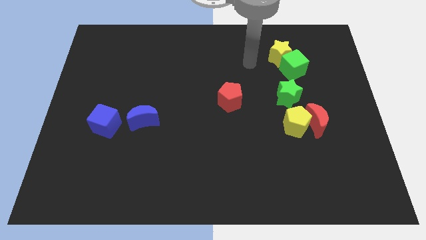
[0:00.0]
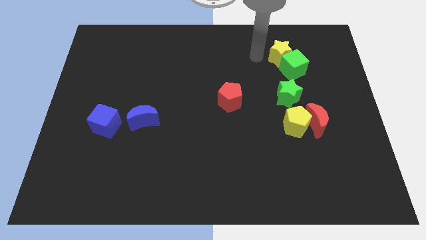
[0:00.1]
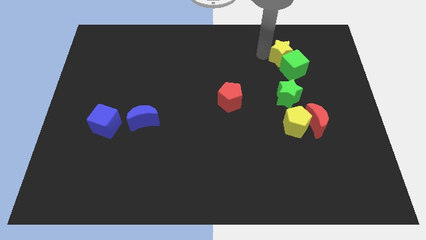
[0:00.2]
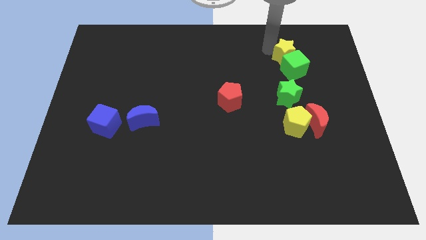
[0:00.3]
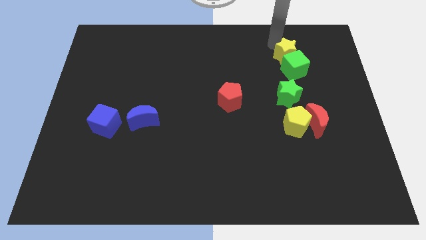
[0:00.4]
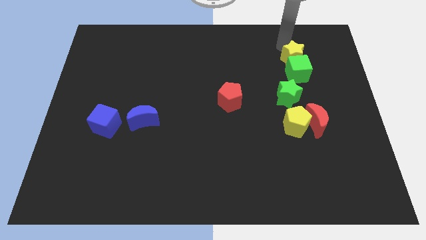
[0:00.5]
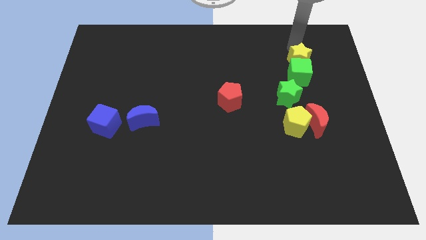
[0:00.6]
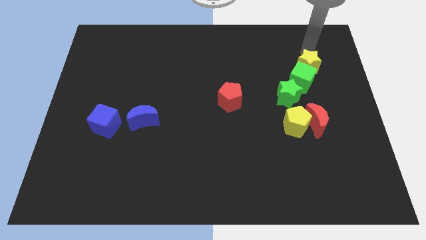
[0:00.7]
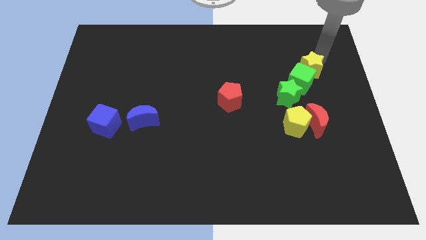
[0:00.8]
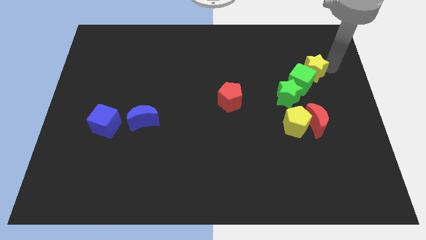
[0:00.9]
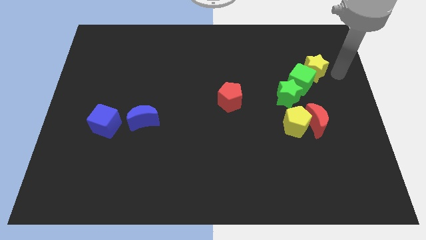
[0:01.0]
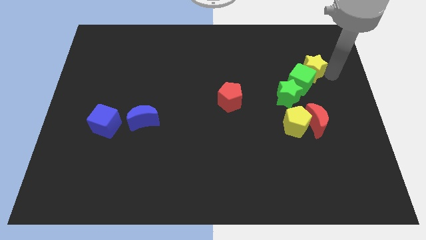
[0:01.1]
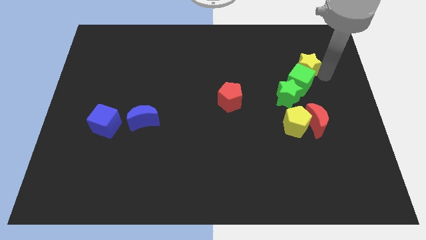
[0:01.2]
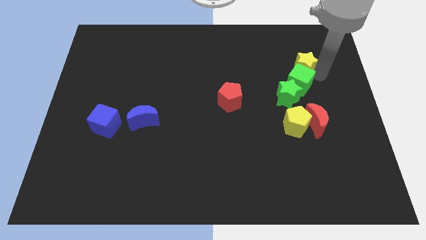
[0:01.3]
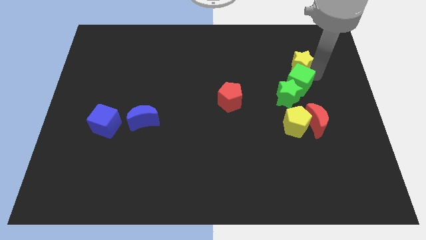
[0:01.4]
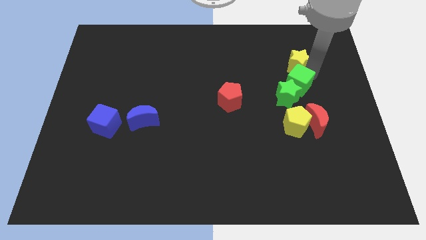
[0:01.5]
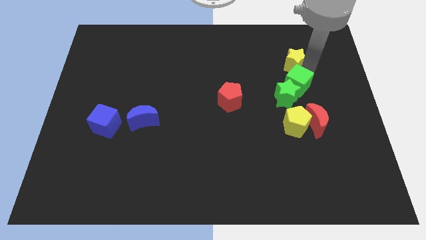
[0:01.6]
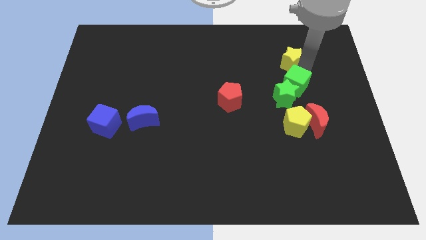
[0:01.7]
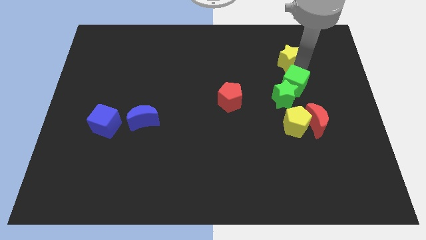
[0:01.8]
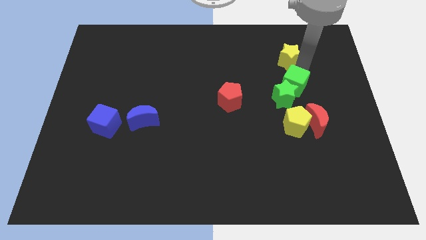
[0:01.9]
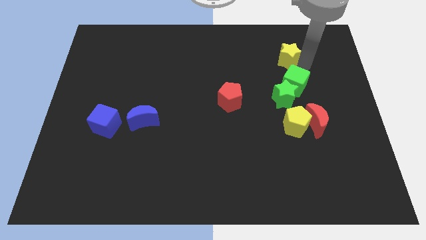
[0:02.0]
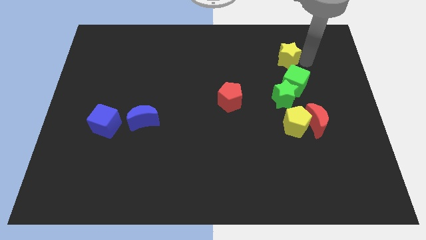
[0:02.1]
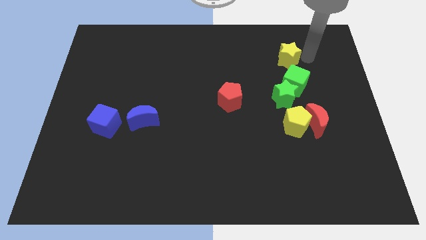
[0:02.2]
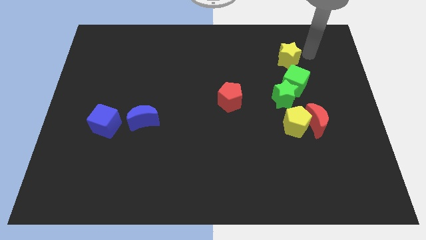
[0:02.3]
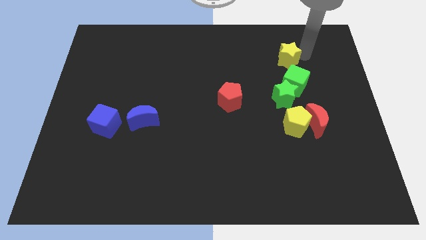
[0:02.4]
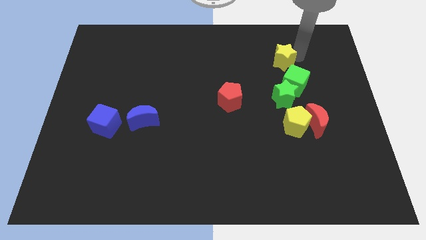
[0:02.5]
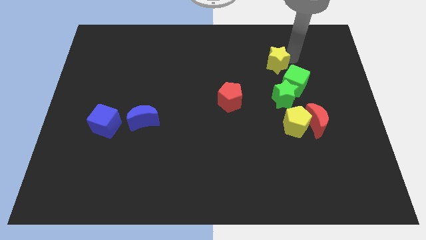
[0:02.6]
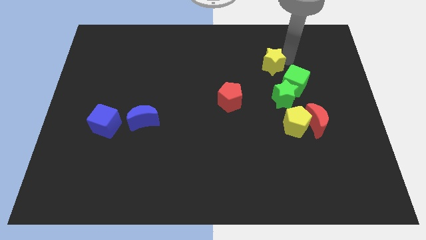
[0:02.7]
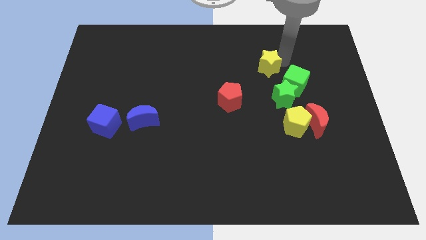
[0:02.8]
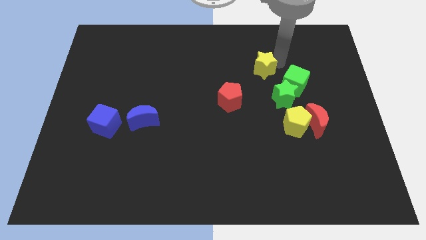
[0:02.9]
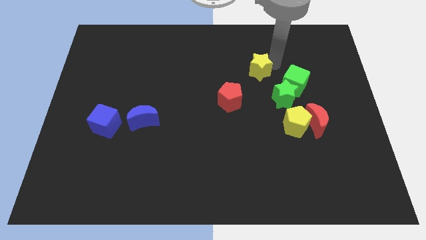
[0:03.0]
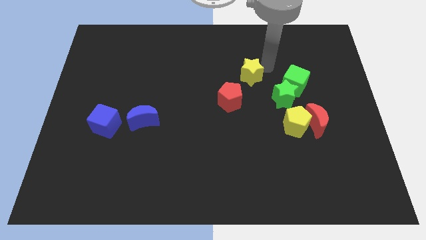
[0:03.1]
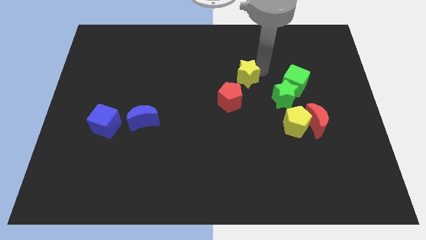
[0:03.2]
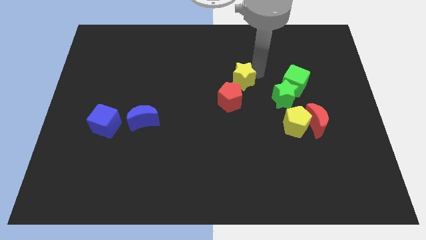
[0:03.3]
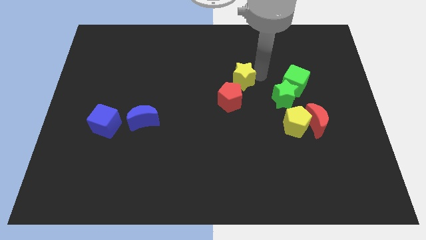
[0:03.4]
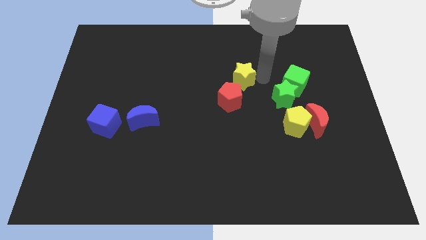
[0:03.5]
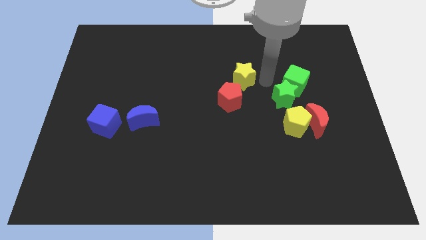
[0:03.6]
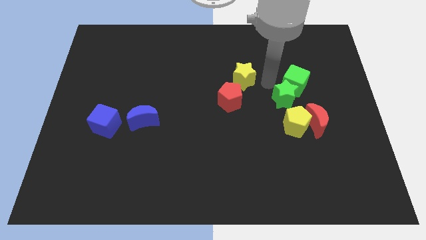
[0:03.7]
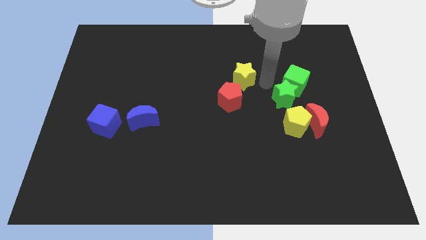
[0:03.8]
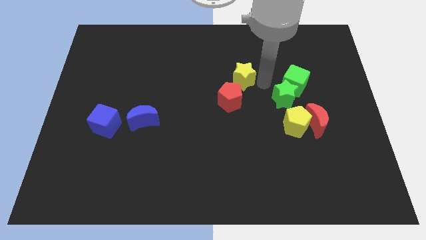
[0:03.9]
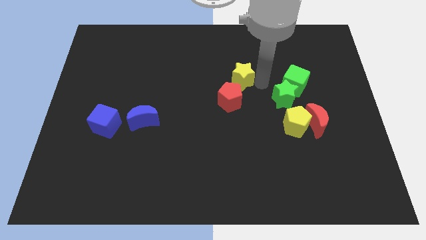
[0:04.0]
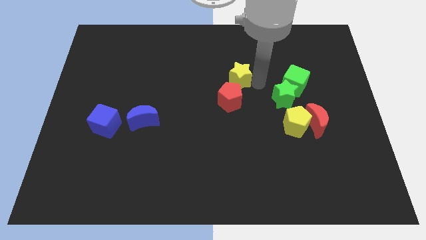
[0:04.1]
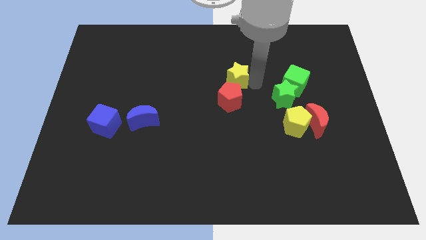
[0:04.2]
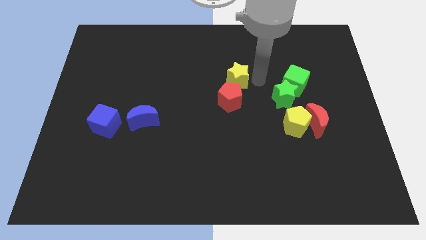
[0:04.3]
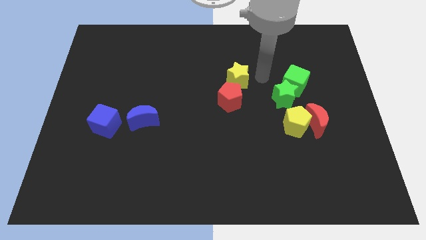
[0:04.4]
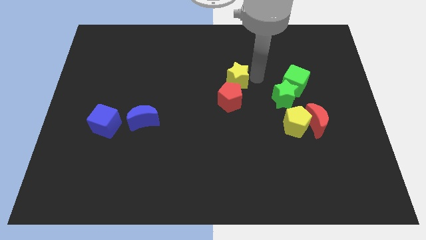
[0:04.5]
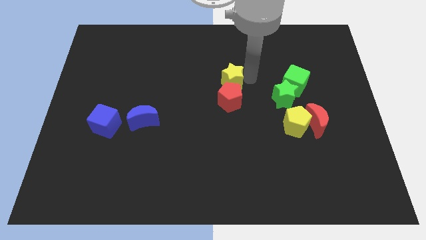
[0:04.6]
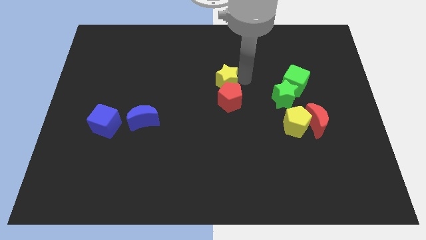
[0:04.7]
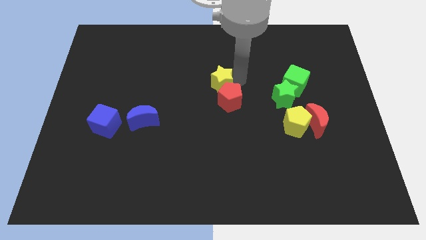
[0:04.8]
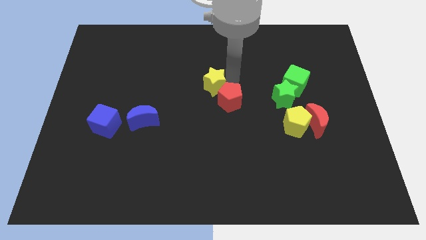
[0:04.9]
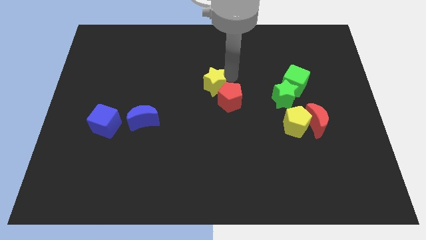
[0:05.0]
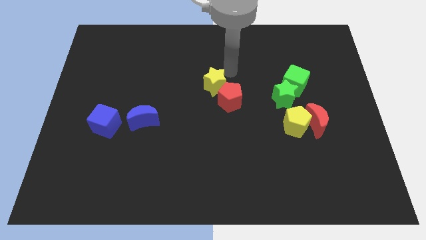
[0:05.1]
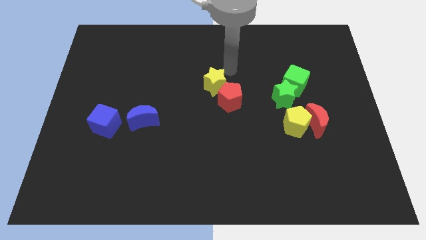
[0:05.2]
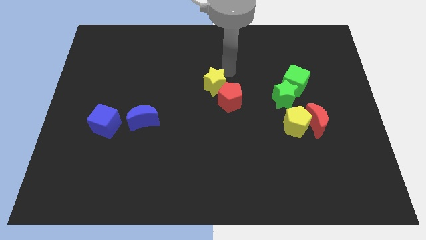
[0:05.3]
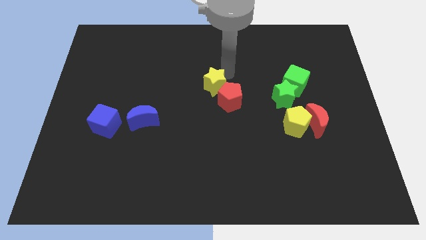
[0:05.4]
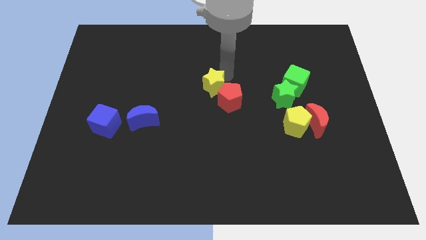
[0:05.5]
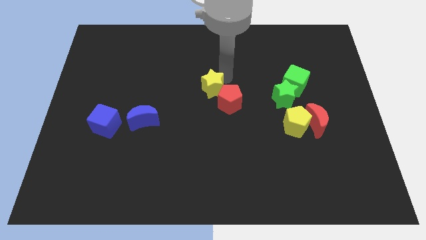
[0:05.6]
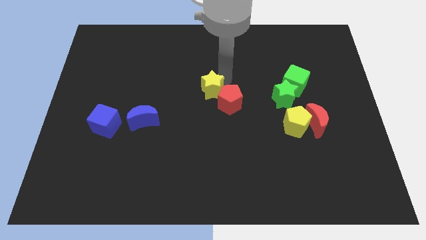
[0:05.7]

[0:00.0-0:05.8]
slide the yellow star downwards and then to the left

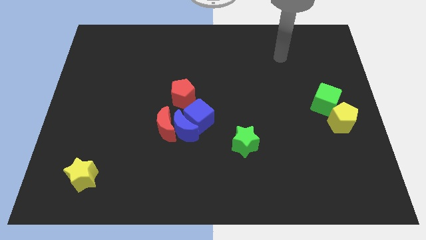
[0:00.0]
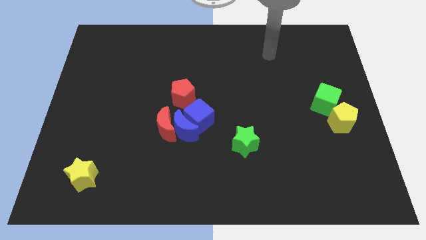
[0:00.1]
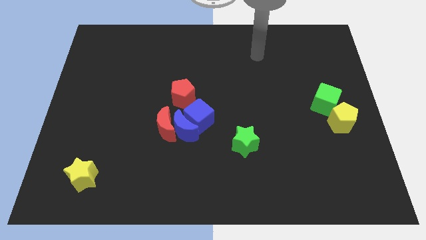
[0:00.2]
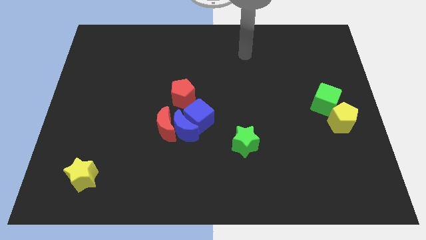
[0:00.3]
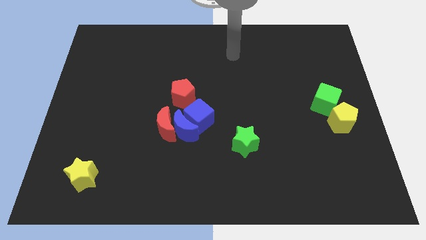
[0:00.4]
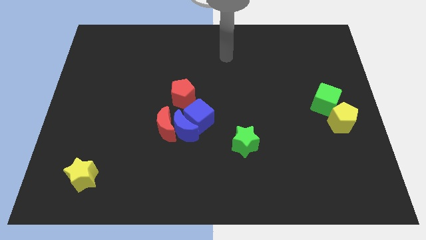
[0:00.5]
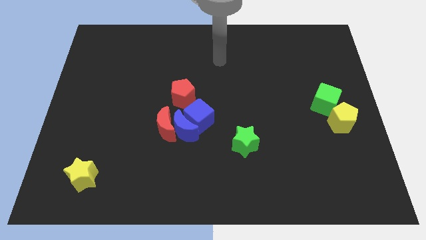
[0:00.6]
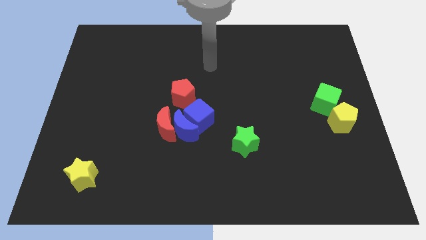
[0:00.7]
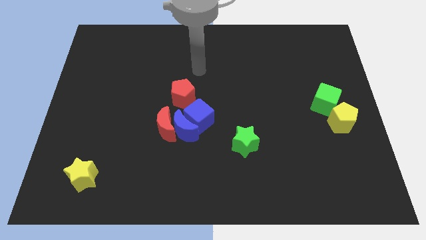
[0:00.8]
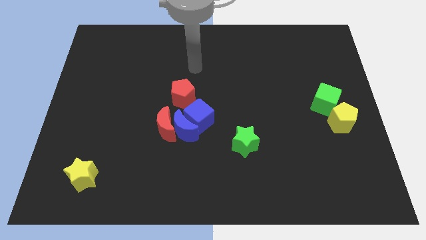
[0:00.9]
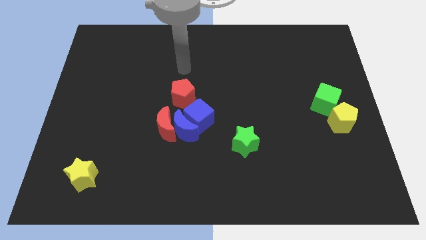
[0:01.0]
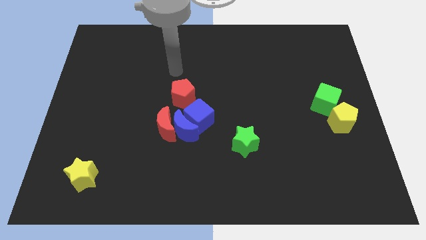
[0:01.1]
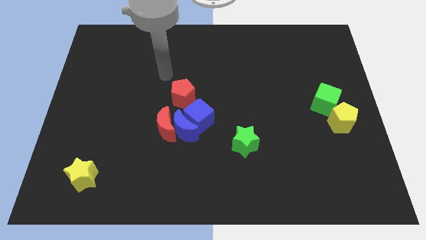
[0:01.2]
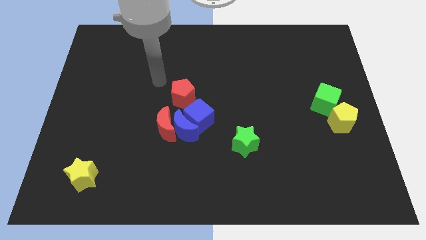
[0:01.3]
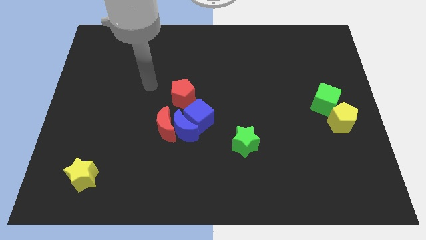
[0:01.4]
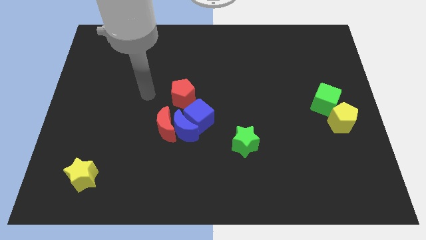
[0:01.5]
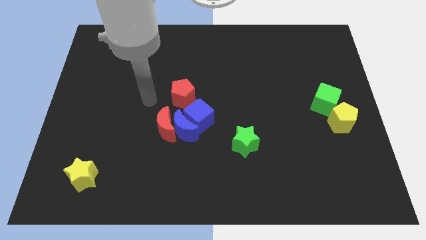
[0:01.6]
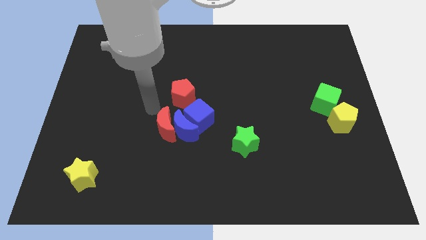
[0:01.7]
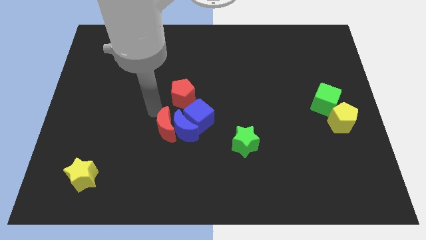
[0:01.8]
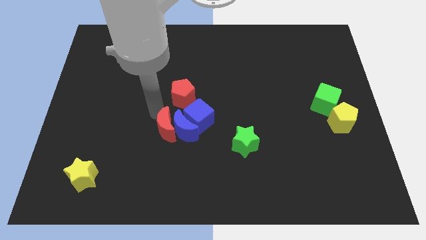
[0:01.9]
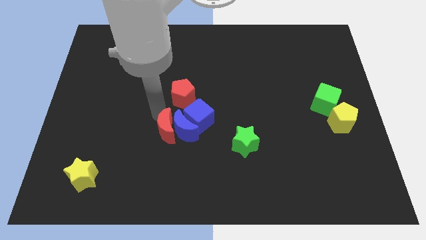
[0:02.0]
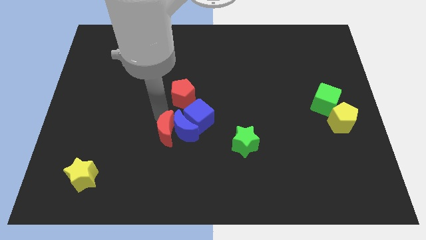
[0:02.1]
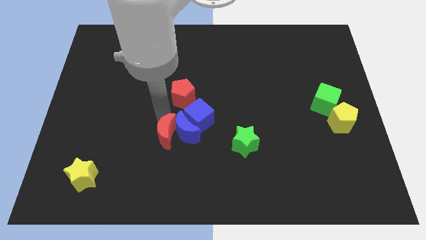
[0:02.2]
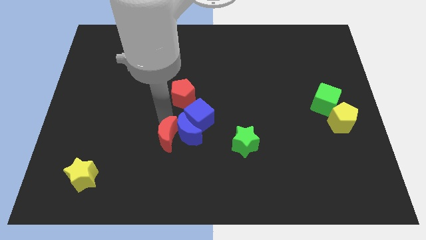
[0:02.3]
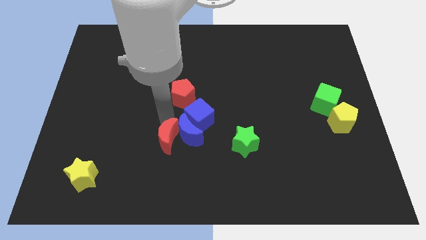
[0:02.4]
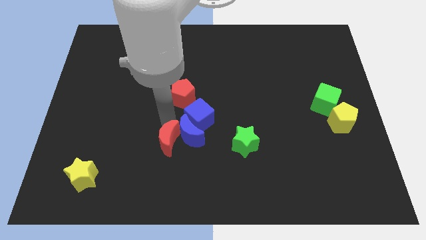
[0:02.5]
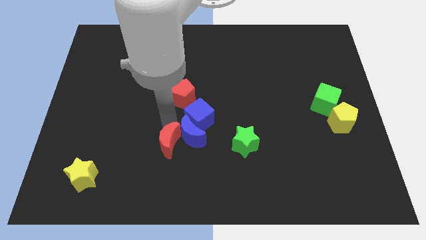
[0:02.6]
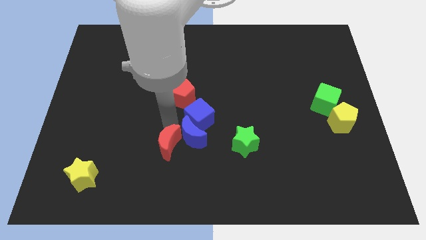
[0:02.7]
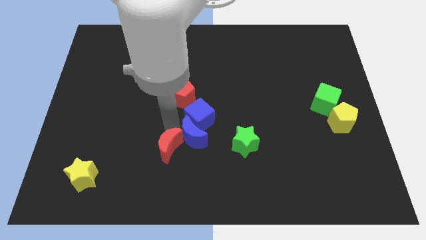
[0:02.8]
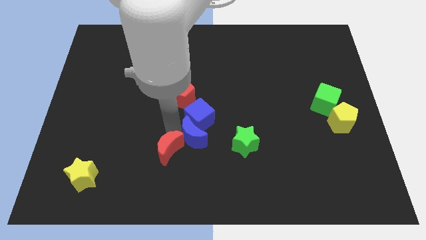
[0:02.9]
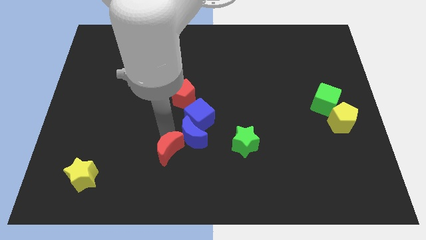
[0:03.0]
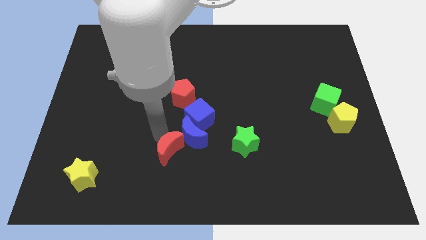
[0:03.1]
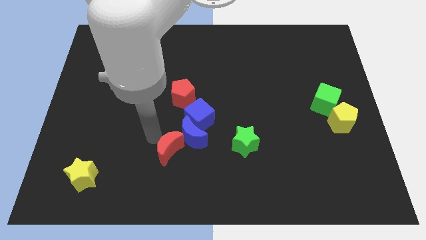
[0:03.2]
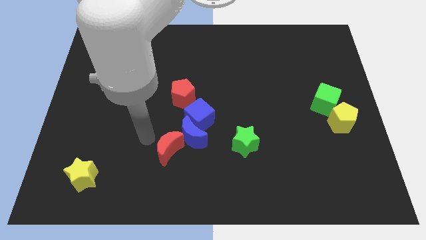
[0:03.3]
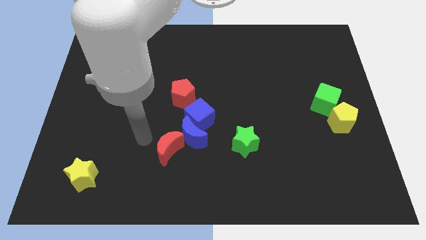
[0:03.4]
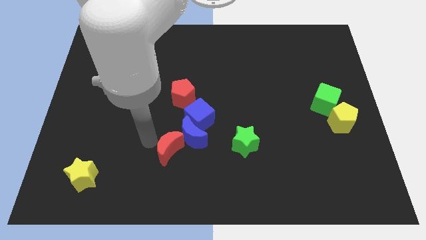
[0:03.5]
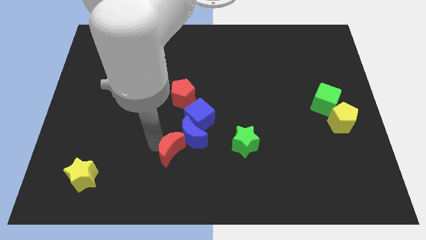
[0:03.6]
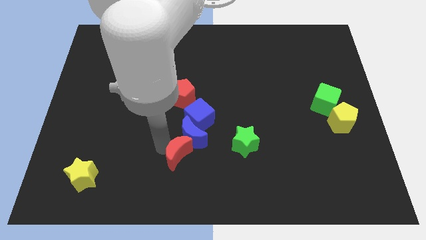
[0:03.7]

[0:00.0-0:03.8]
push the red moon a bit diagonally downwards and to the right
